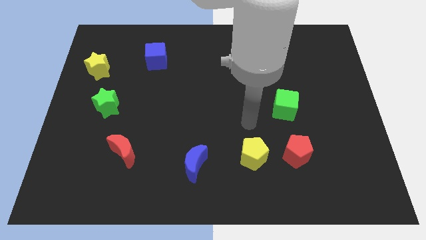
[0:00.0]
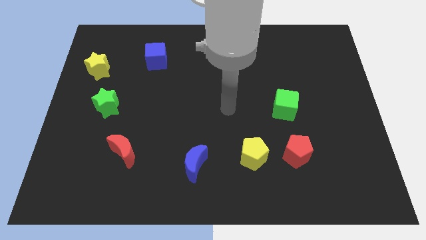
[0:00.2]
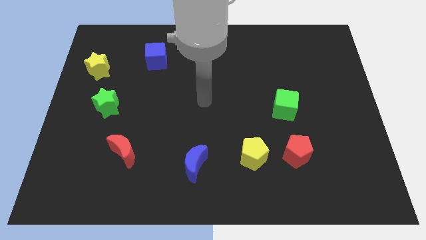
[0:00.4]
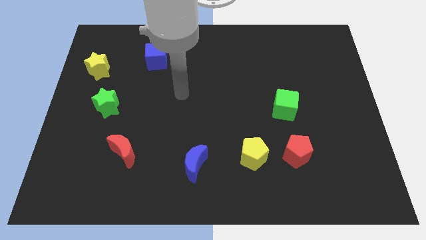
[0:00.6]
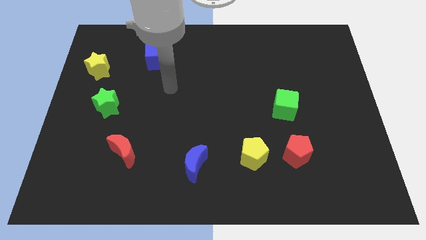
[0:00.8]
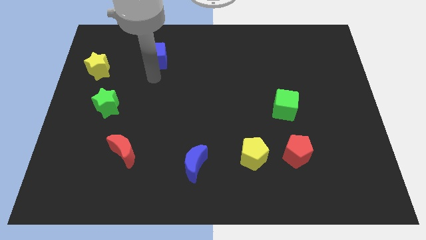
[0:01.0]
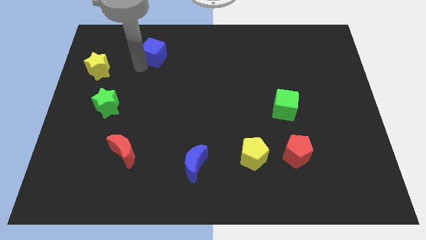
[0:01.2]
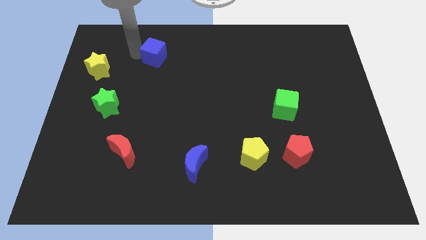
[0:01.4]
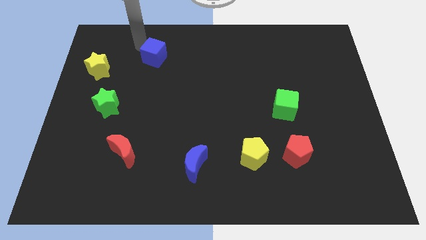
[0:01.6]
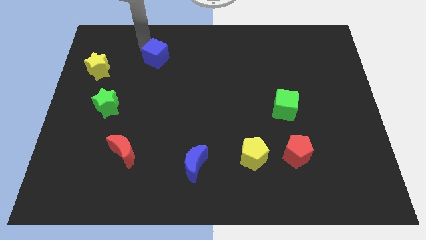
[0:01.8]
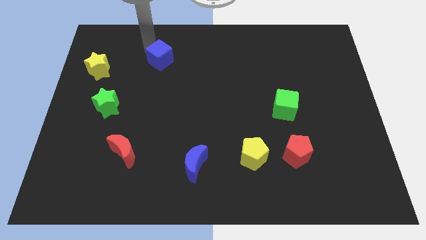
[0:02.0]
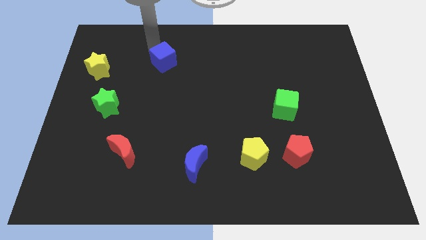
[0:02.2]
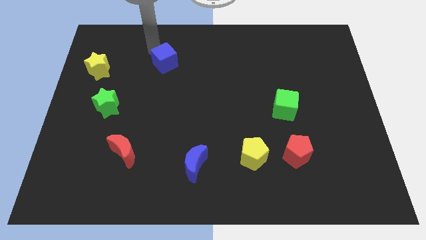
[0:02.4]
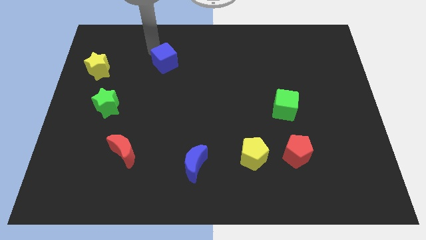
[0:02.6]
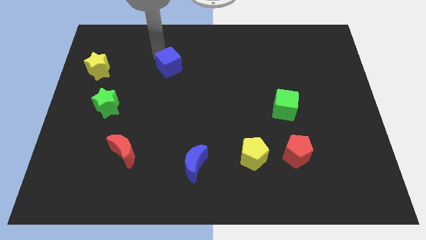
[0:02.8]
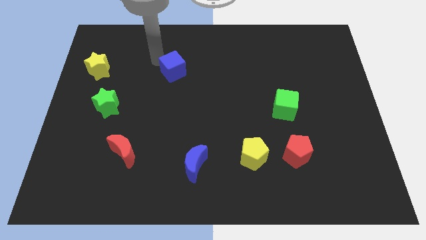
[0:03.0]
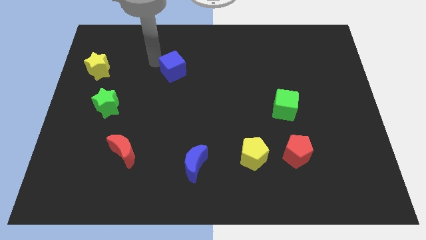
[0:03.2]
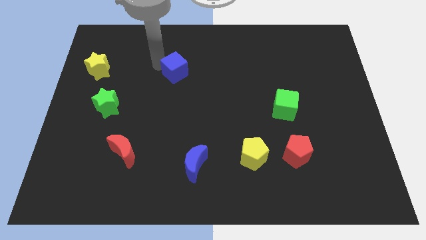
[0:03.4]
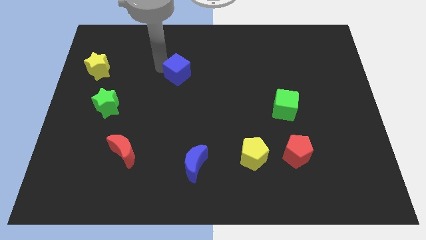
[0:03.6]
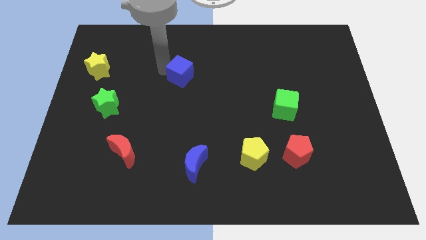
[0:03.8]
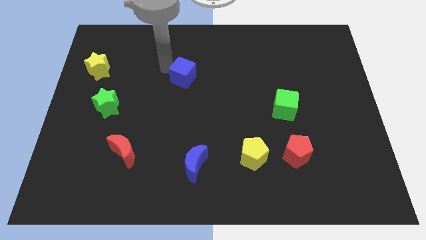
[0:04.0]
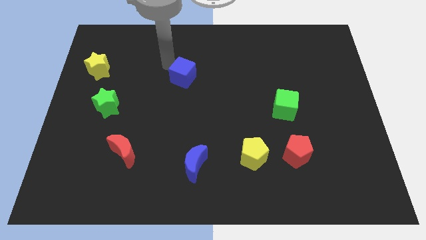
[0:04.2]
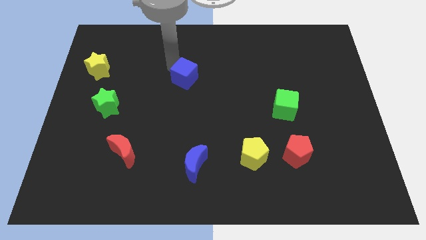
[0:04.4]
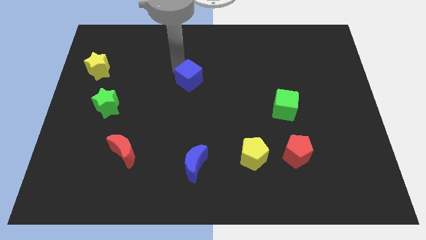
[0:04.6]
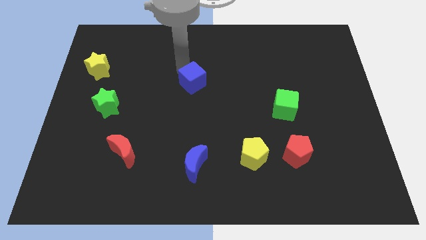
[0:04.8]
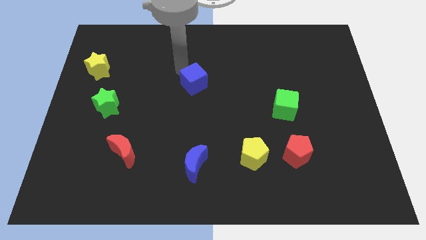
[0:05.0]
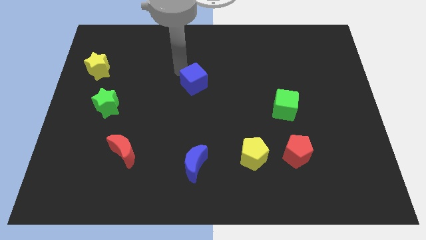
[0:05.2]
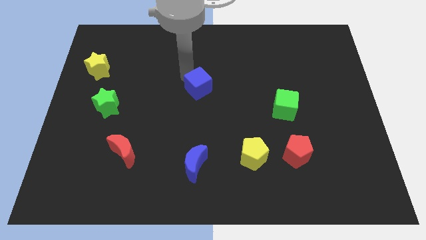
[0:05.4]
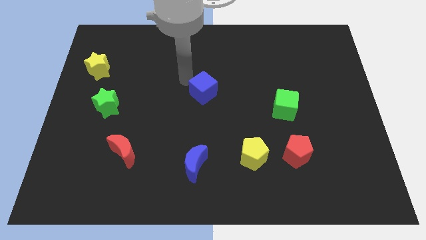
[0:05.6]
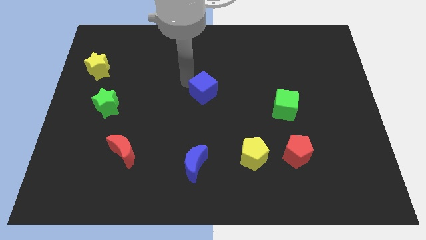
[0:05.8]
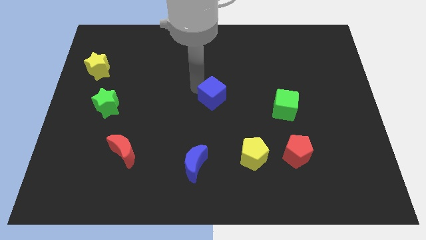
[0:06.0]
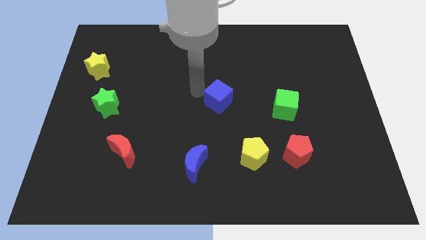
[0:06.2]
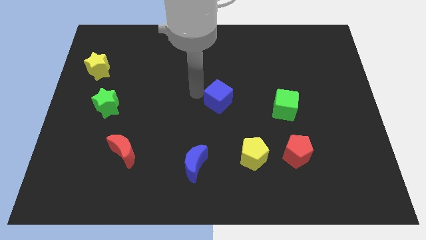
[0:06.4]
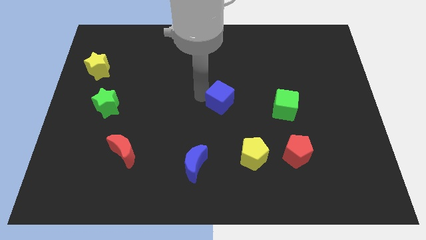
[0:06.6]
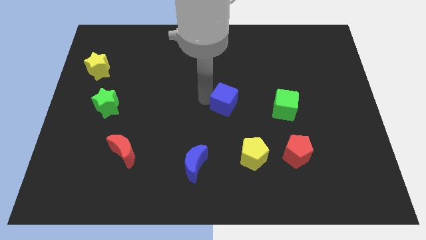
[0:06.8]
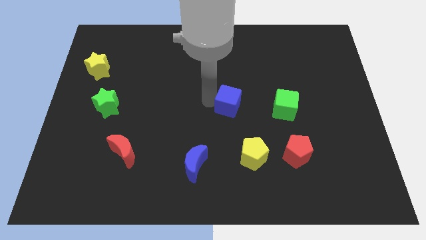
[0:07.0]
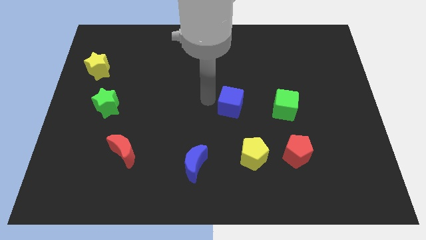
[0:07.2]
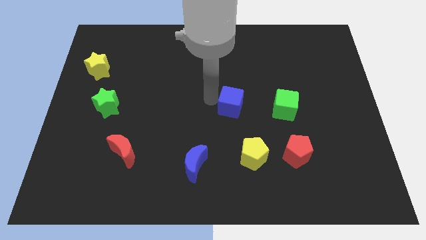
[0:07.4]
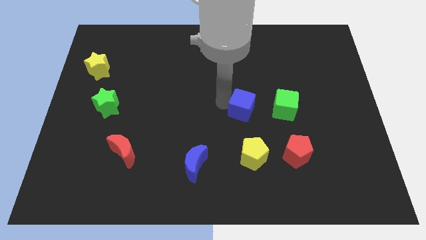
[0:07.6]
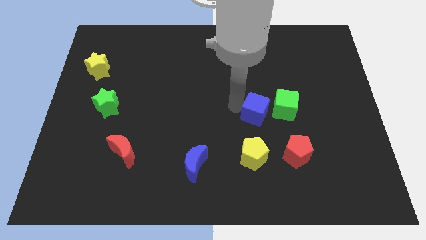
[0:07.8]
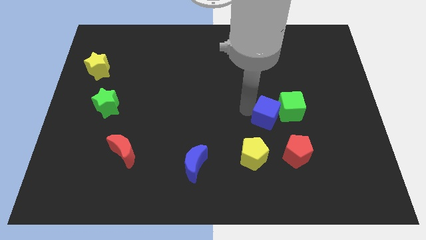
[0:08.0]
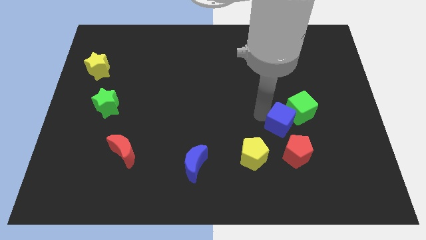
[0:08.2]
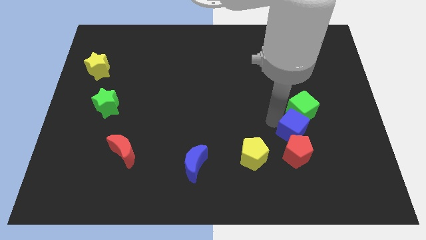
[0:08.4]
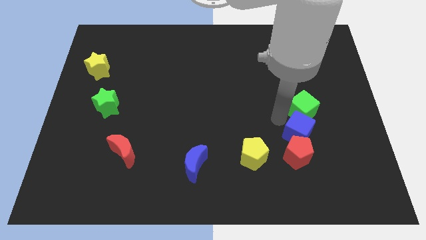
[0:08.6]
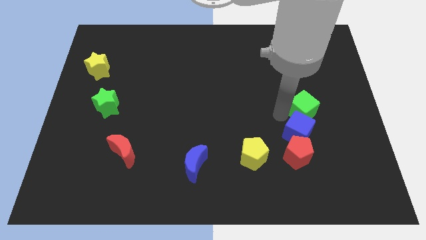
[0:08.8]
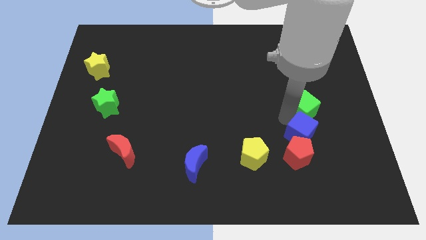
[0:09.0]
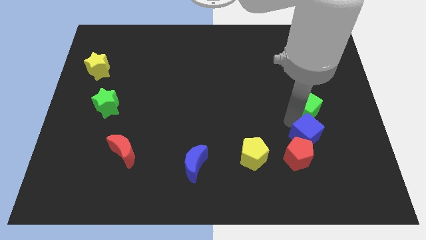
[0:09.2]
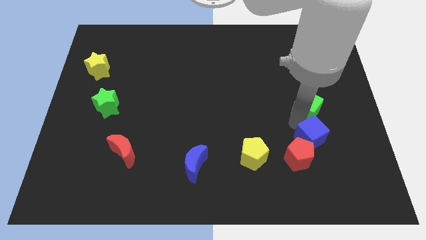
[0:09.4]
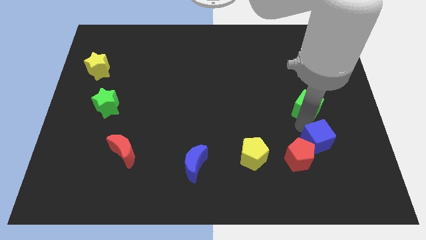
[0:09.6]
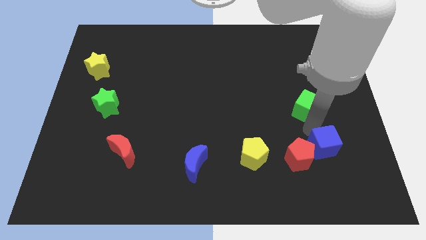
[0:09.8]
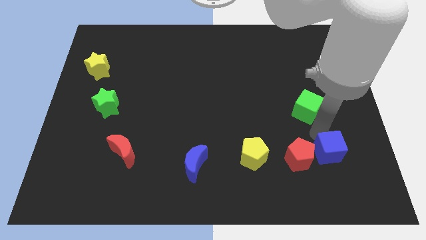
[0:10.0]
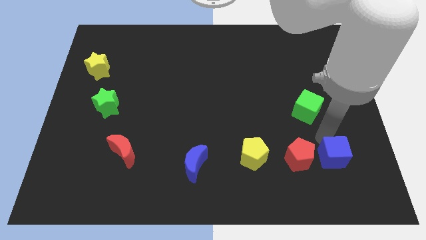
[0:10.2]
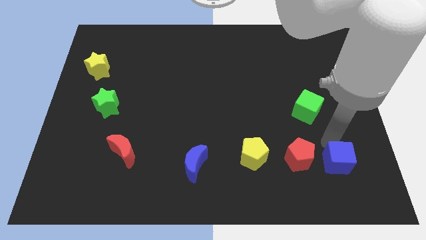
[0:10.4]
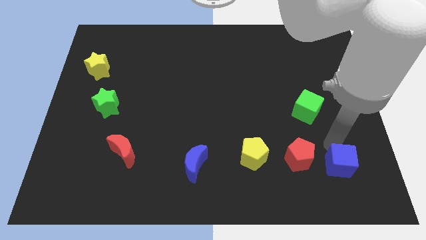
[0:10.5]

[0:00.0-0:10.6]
put the blue cube to the bottom right of the red pentagon

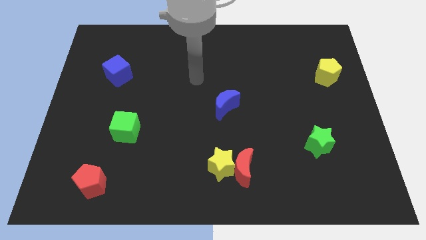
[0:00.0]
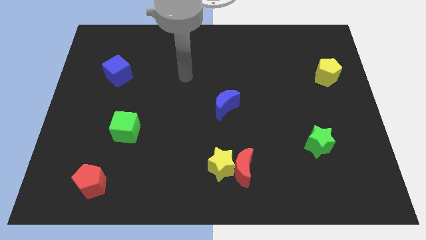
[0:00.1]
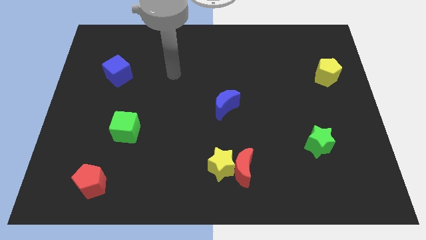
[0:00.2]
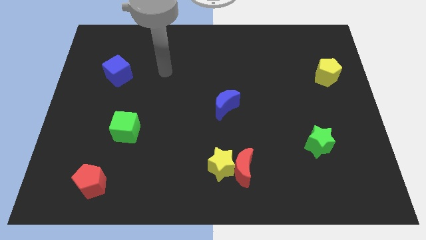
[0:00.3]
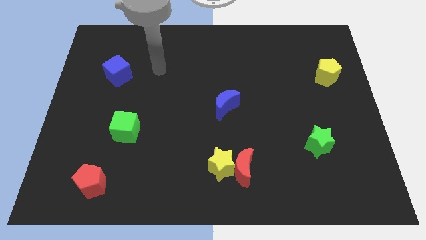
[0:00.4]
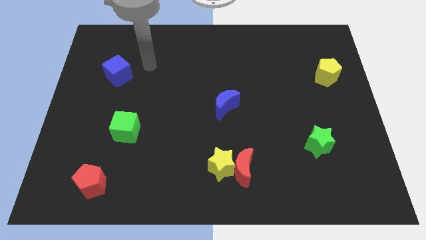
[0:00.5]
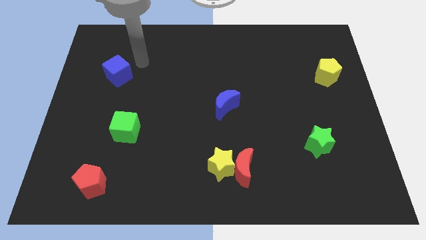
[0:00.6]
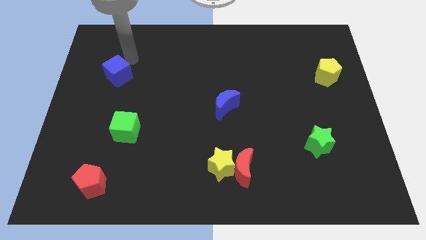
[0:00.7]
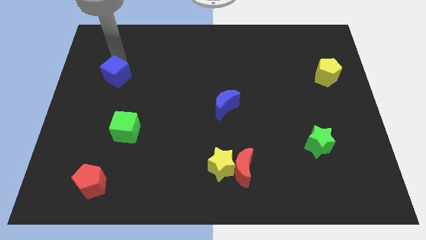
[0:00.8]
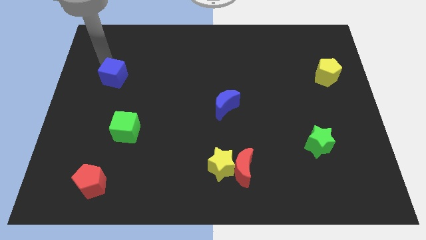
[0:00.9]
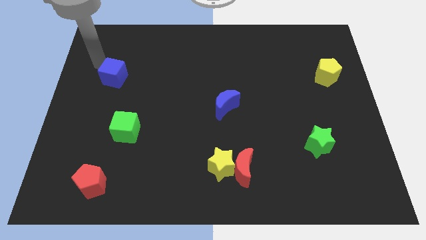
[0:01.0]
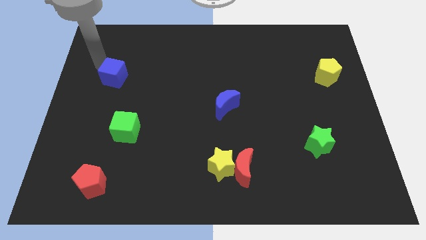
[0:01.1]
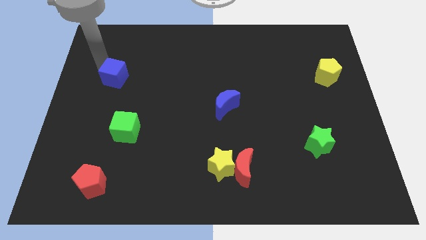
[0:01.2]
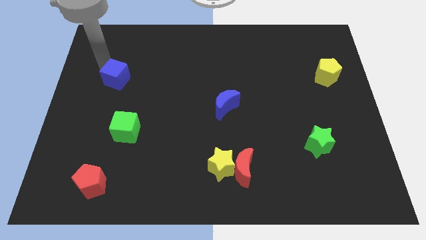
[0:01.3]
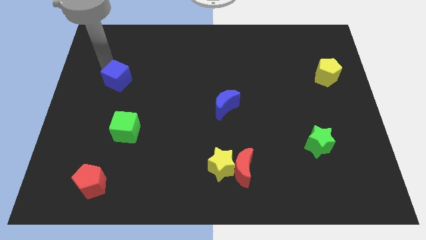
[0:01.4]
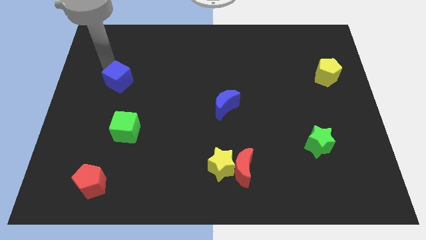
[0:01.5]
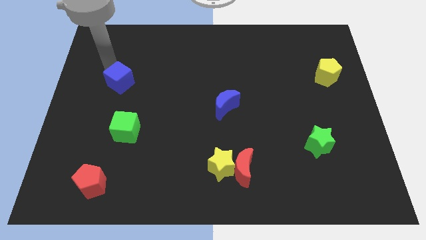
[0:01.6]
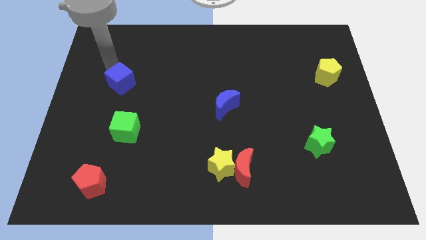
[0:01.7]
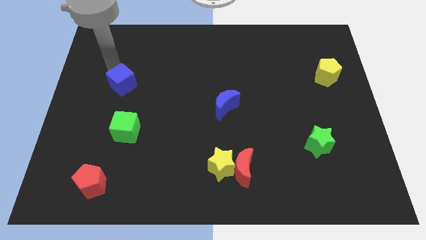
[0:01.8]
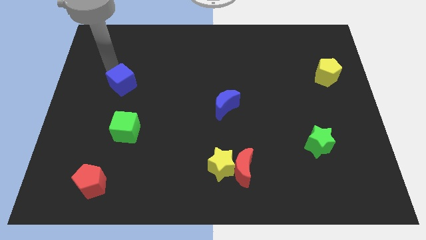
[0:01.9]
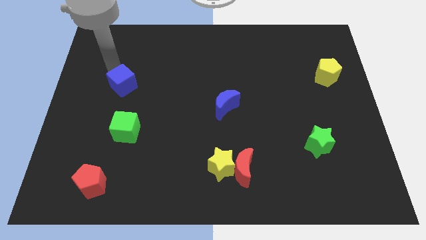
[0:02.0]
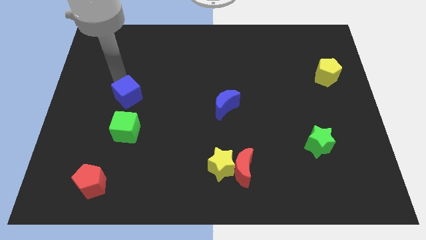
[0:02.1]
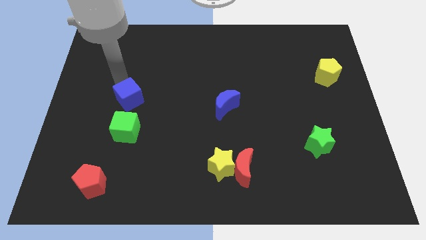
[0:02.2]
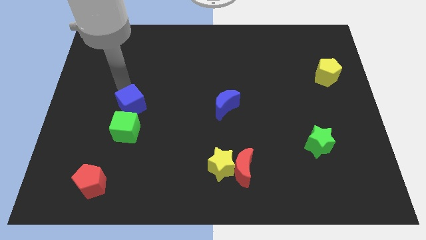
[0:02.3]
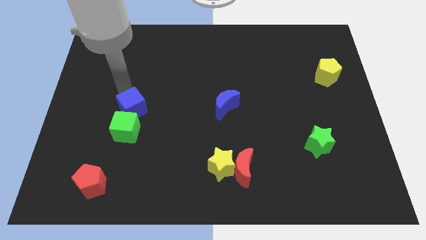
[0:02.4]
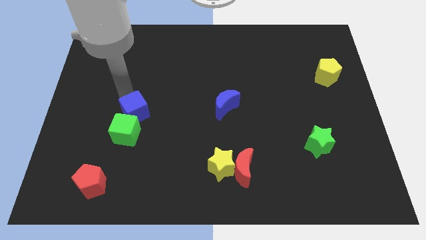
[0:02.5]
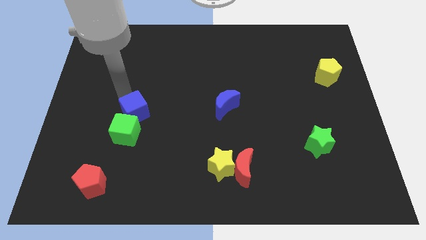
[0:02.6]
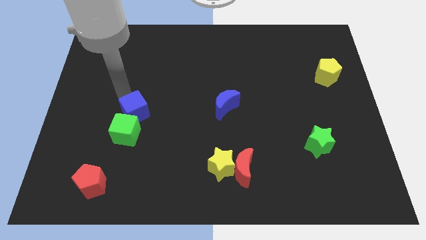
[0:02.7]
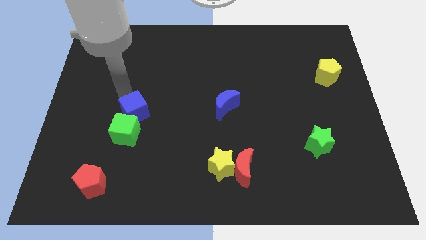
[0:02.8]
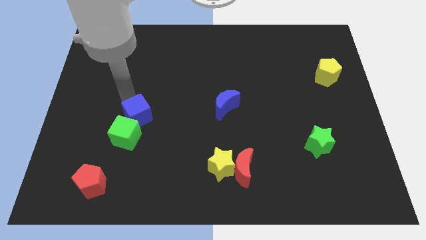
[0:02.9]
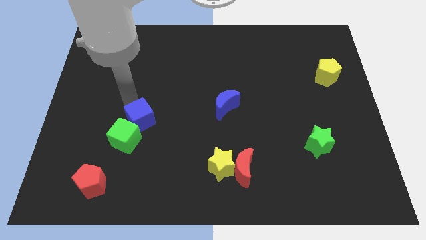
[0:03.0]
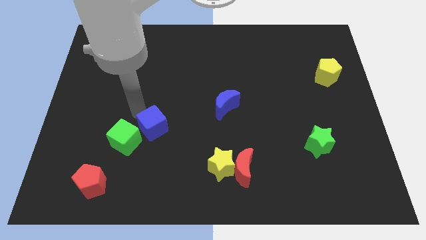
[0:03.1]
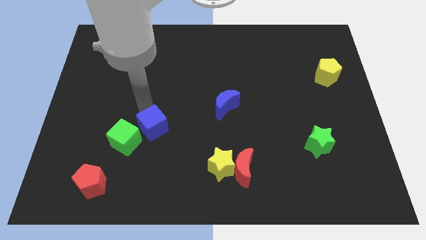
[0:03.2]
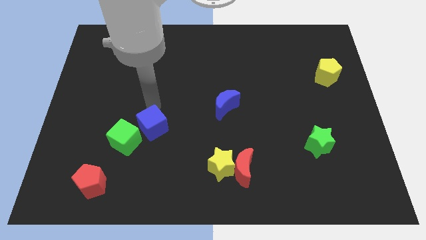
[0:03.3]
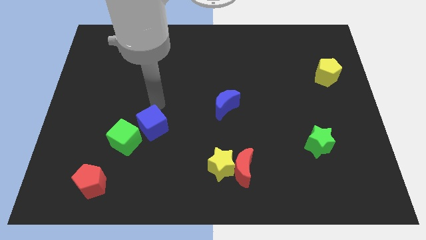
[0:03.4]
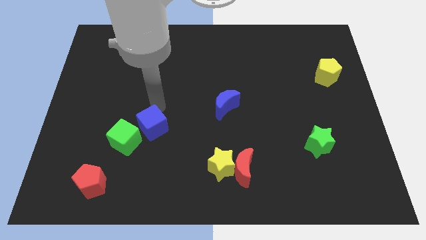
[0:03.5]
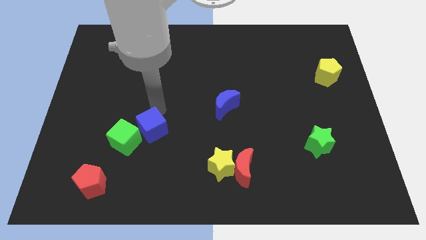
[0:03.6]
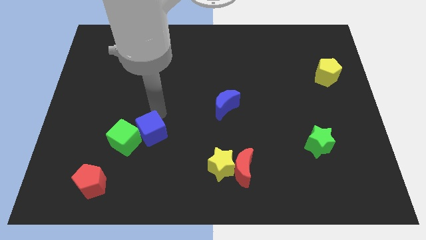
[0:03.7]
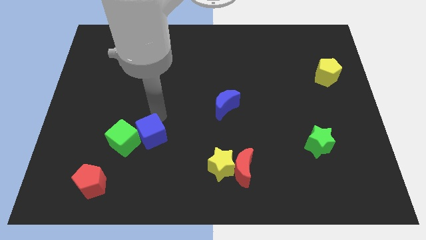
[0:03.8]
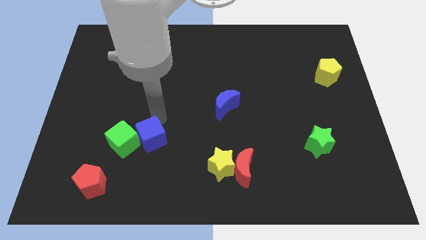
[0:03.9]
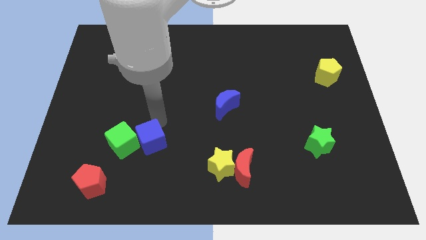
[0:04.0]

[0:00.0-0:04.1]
move the blue cube diagonally down and to the right of the green cube
